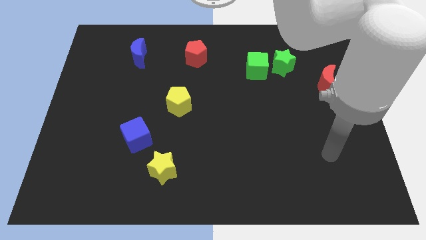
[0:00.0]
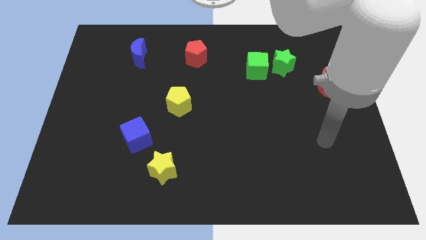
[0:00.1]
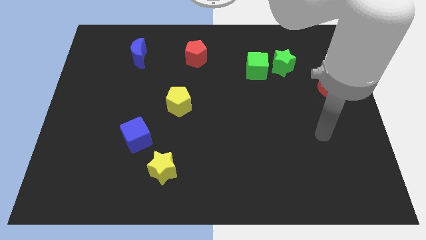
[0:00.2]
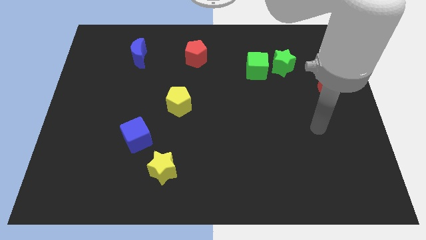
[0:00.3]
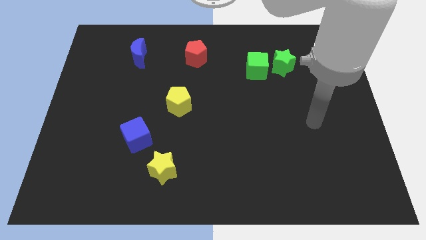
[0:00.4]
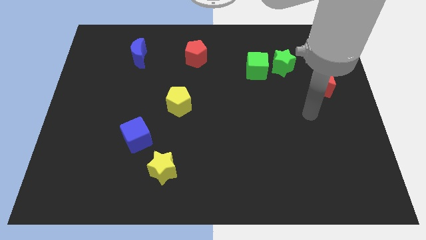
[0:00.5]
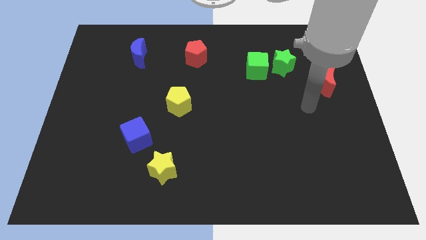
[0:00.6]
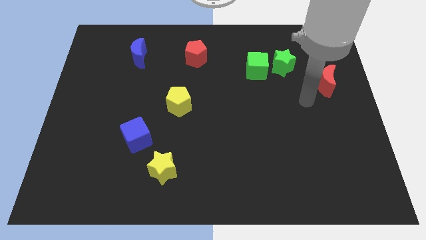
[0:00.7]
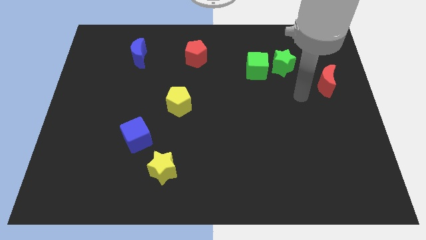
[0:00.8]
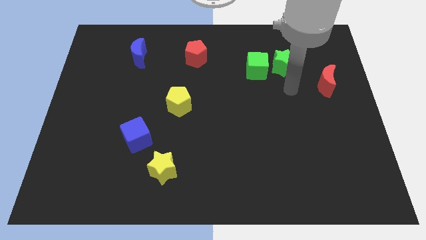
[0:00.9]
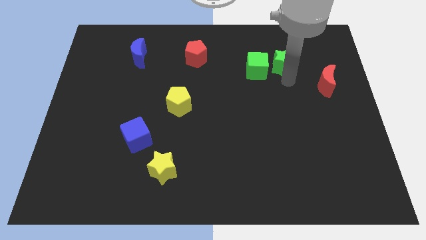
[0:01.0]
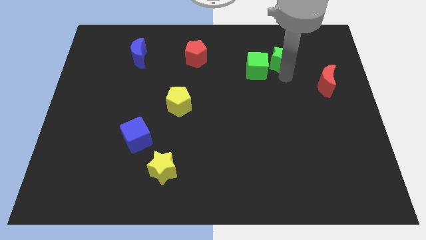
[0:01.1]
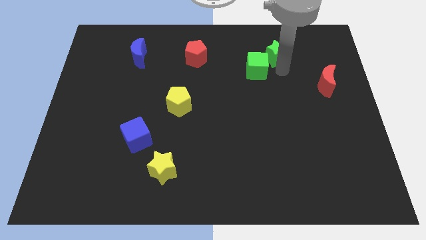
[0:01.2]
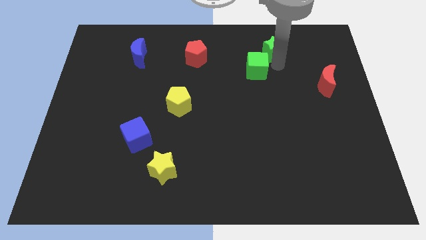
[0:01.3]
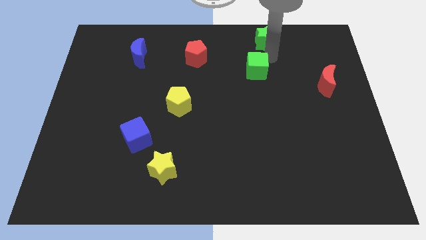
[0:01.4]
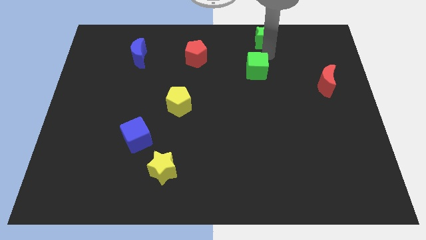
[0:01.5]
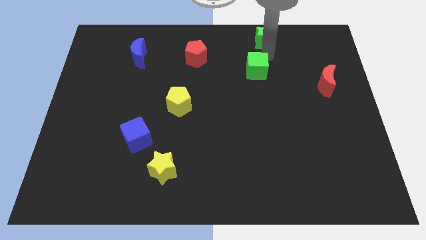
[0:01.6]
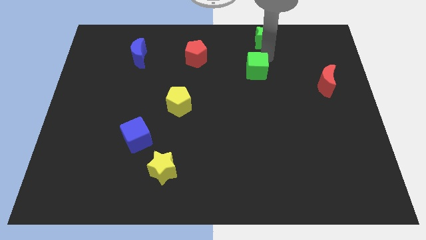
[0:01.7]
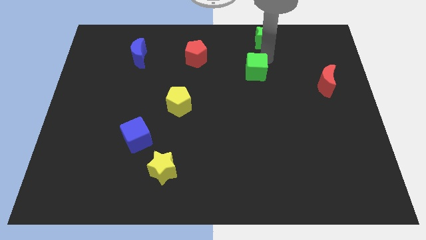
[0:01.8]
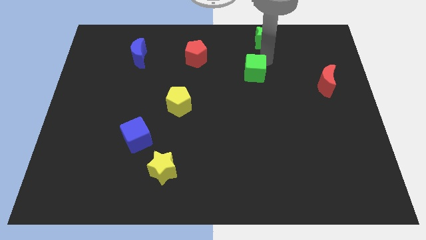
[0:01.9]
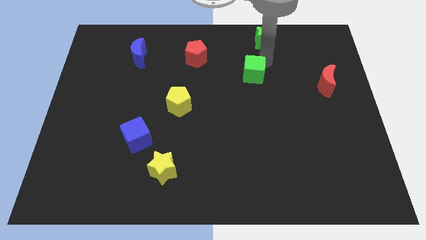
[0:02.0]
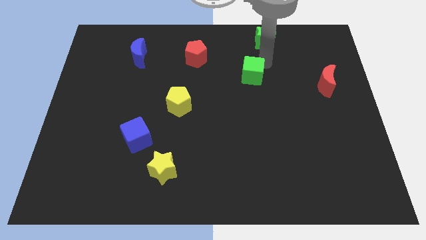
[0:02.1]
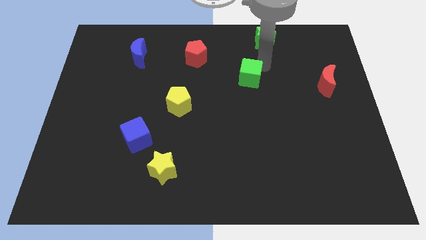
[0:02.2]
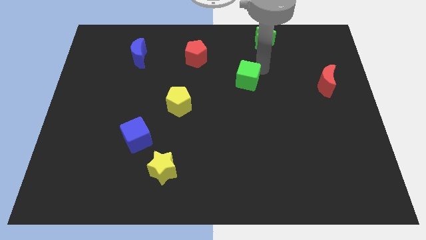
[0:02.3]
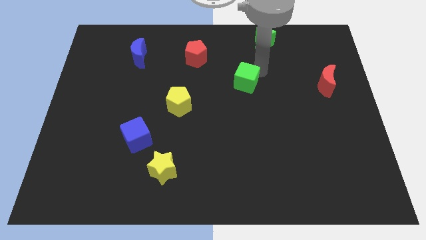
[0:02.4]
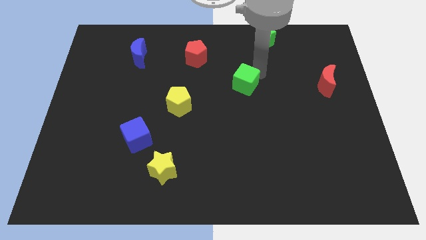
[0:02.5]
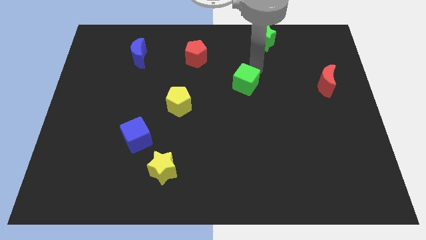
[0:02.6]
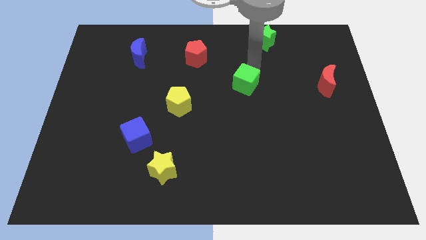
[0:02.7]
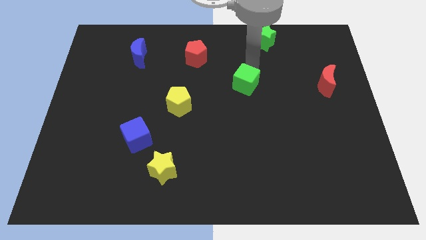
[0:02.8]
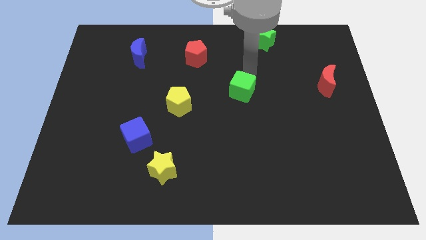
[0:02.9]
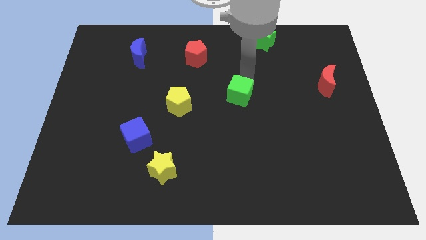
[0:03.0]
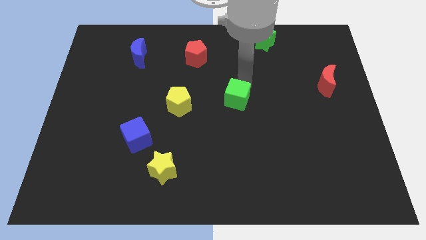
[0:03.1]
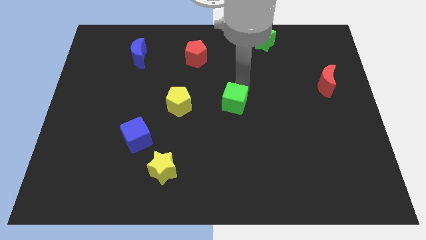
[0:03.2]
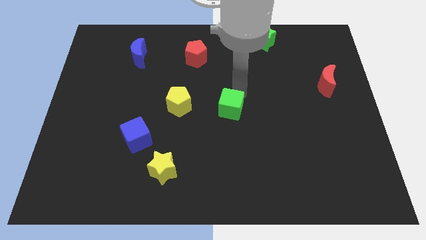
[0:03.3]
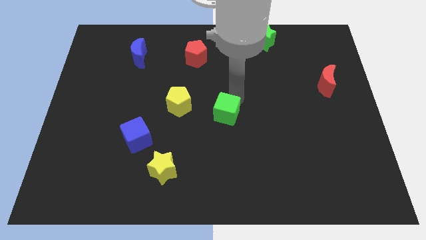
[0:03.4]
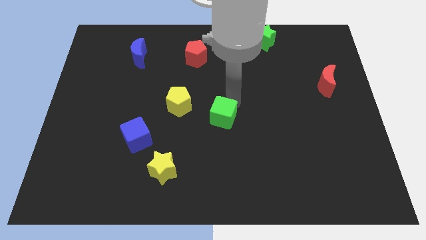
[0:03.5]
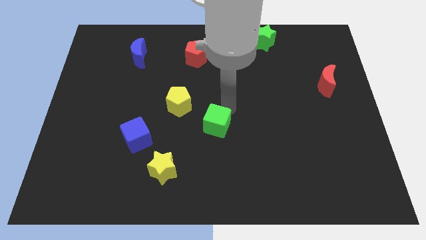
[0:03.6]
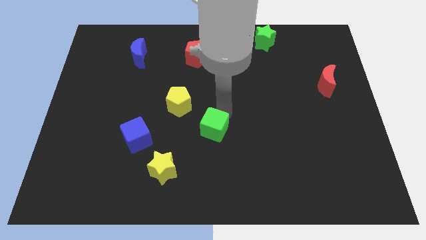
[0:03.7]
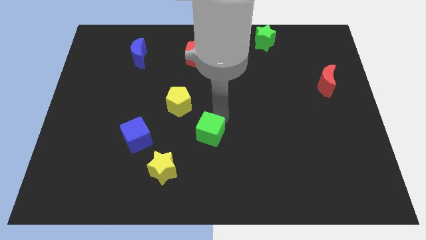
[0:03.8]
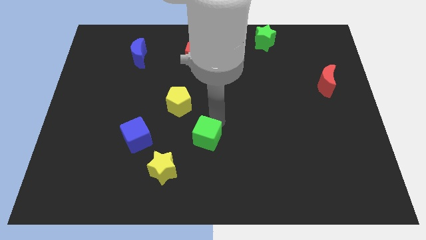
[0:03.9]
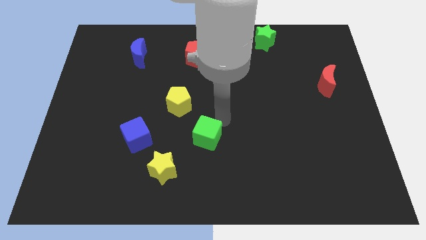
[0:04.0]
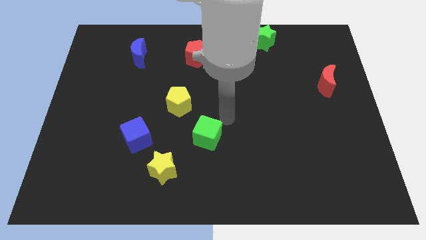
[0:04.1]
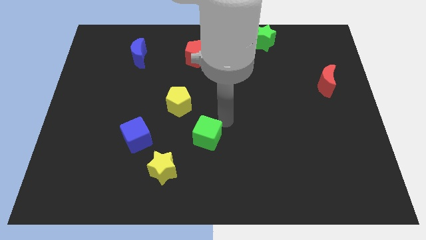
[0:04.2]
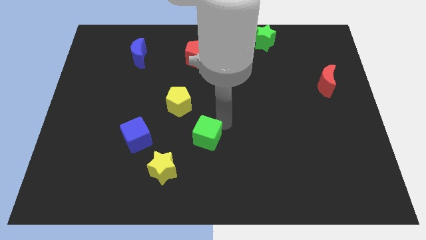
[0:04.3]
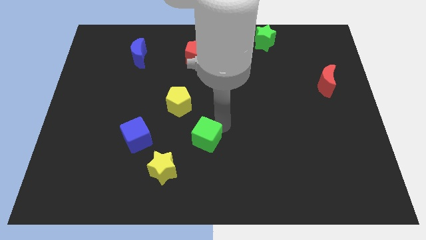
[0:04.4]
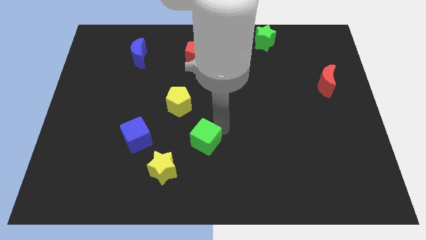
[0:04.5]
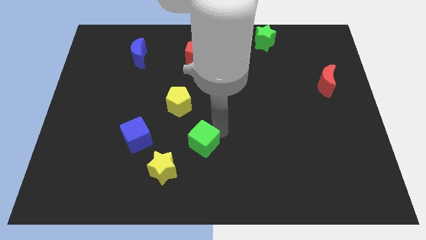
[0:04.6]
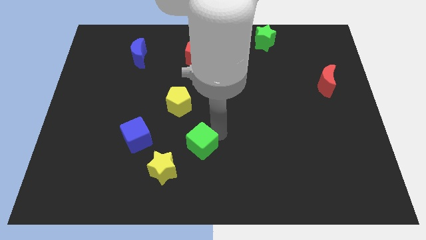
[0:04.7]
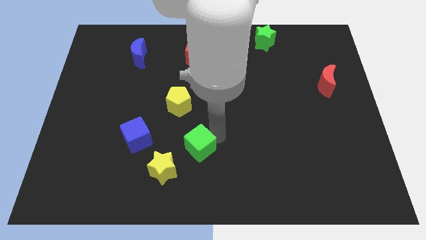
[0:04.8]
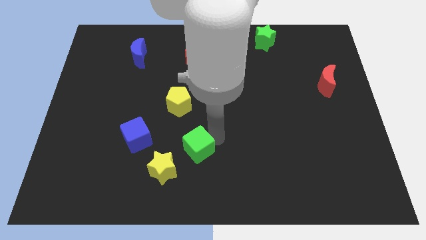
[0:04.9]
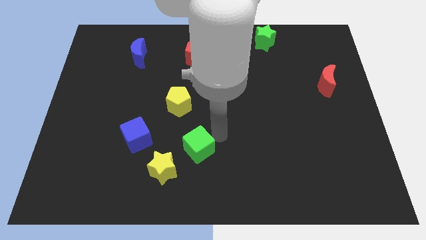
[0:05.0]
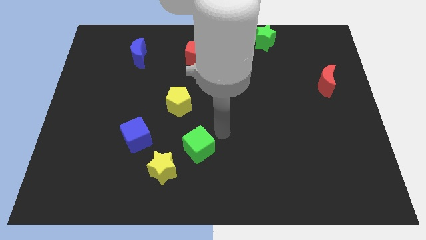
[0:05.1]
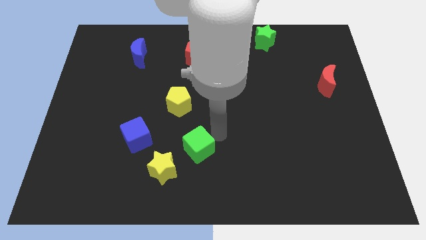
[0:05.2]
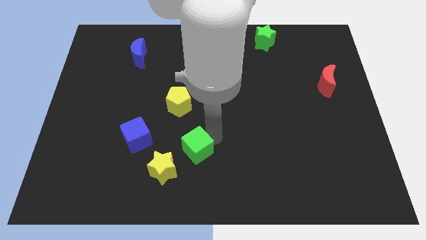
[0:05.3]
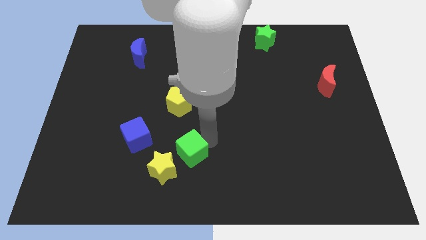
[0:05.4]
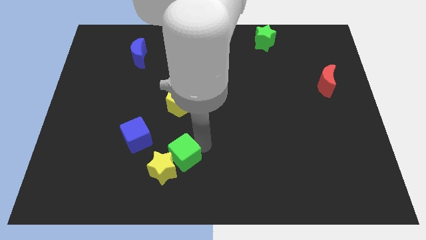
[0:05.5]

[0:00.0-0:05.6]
put the green cube towards the yellow star

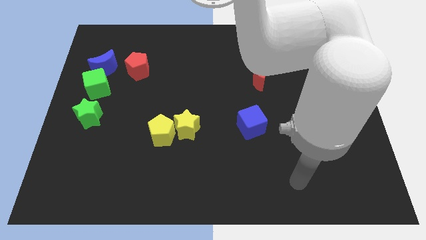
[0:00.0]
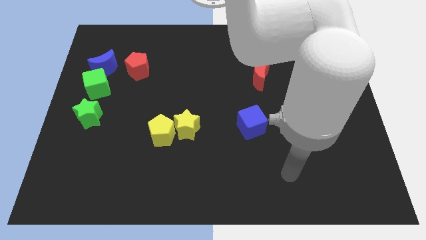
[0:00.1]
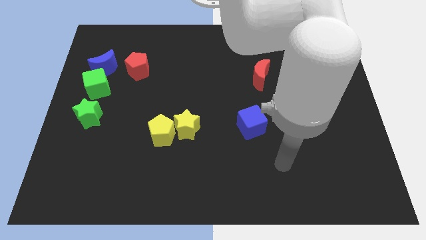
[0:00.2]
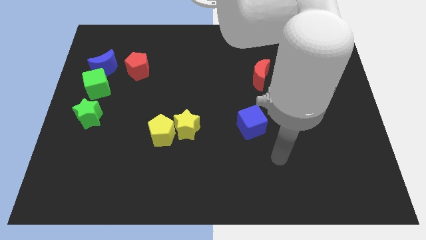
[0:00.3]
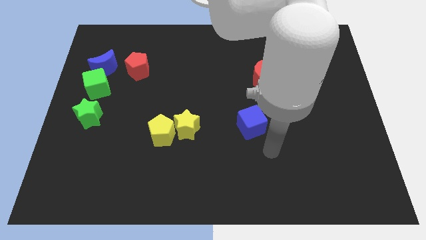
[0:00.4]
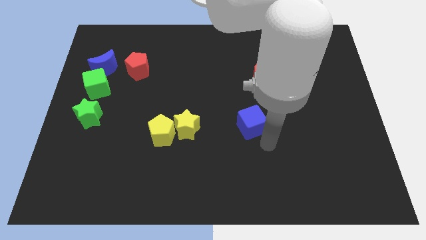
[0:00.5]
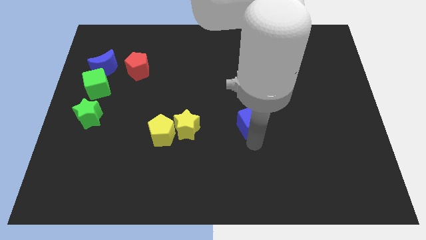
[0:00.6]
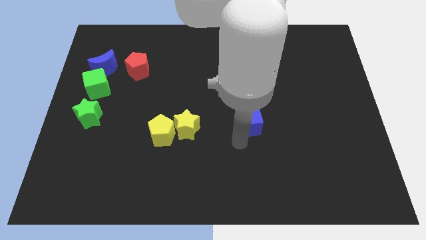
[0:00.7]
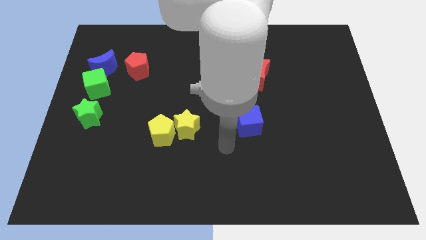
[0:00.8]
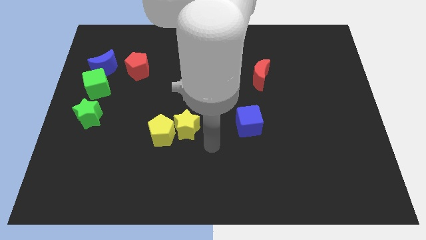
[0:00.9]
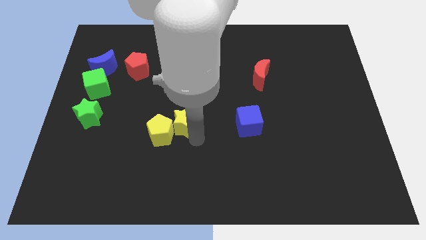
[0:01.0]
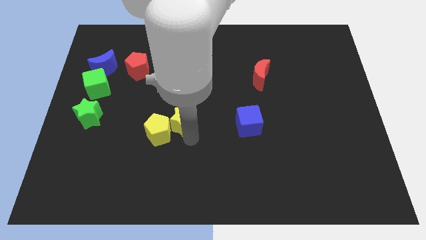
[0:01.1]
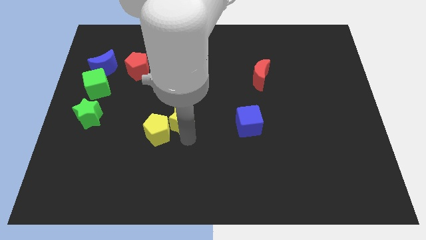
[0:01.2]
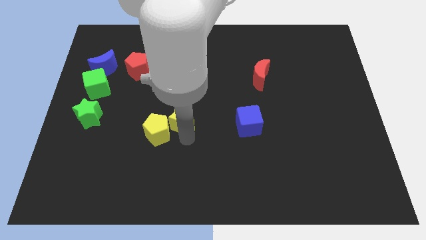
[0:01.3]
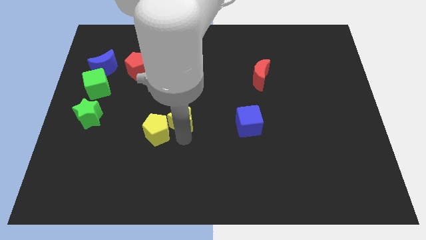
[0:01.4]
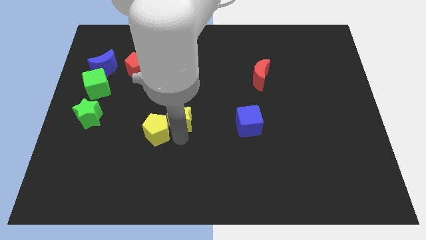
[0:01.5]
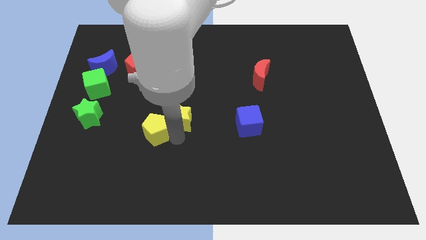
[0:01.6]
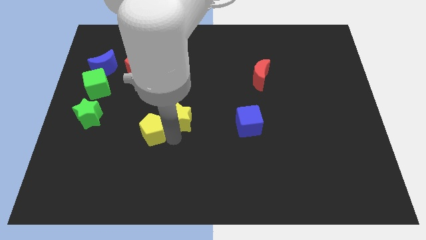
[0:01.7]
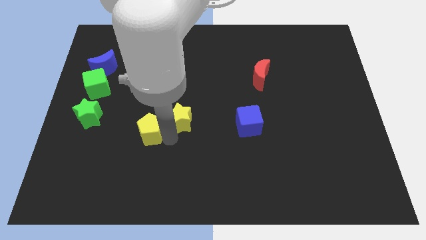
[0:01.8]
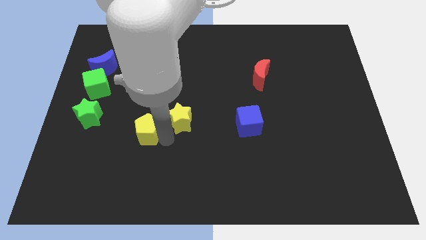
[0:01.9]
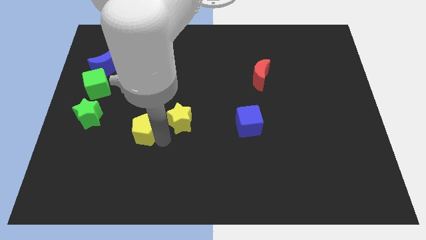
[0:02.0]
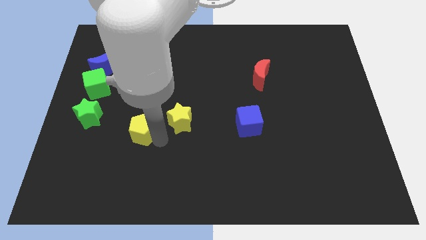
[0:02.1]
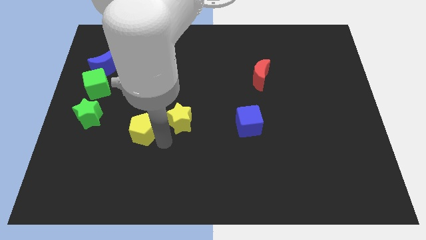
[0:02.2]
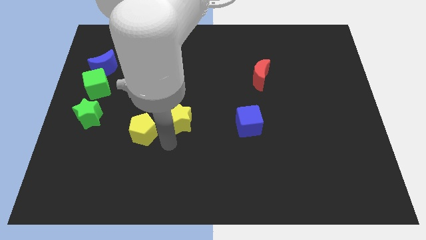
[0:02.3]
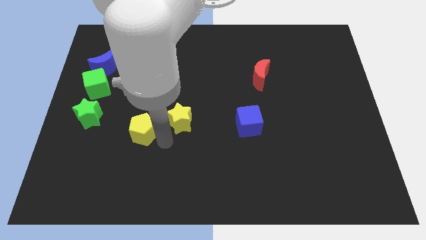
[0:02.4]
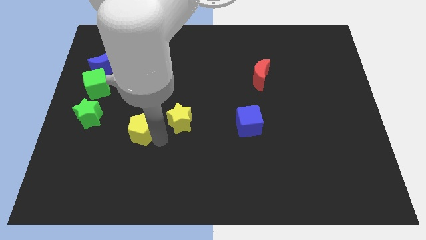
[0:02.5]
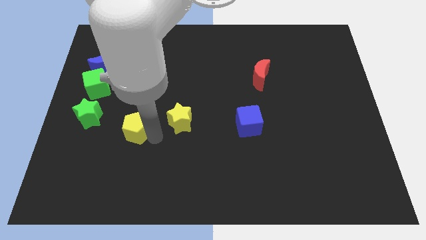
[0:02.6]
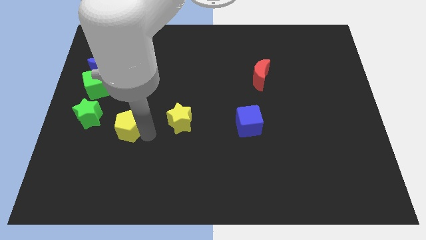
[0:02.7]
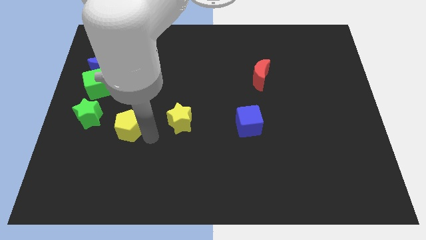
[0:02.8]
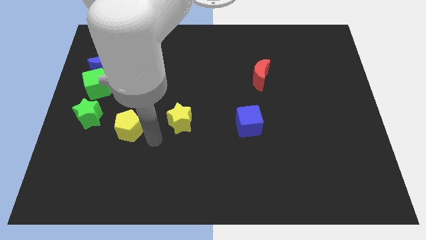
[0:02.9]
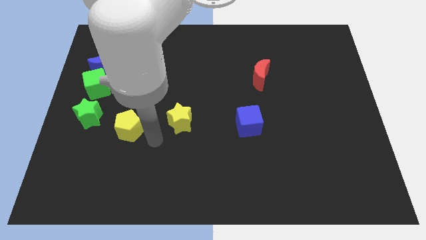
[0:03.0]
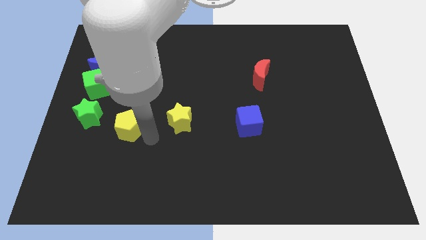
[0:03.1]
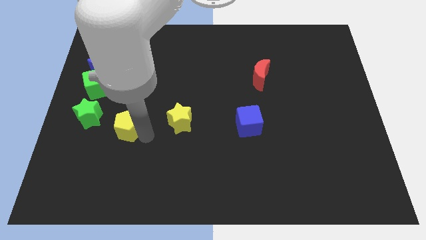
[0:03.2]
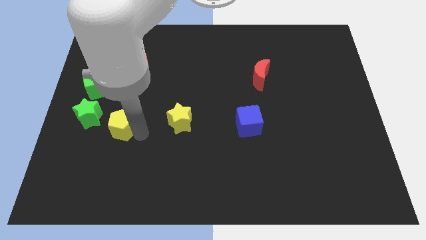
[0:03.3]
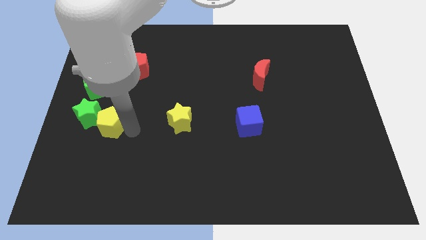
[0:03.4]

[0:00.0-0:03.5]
put the yellow pentagon towards the green star
